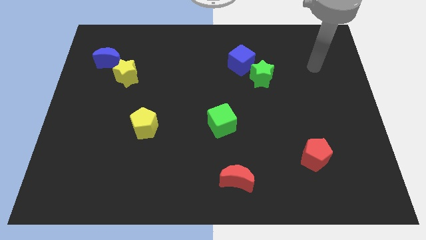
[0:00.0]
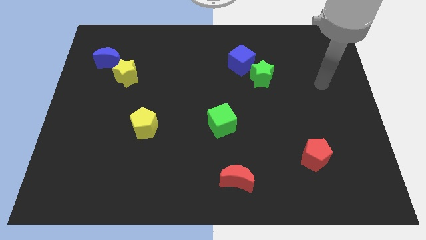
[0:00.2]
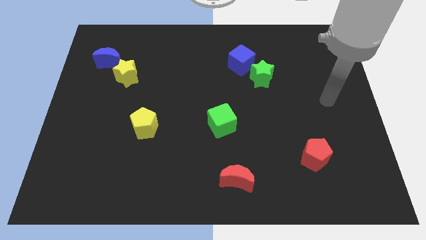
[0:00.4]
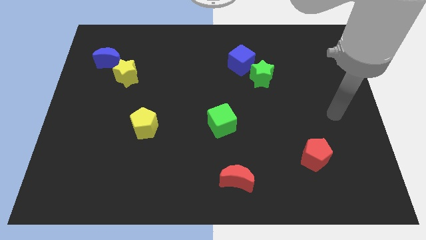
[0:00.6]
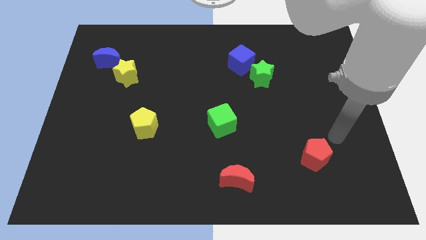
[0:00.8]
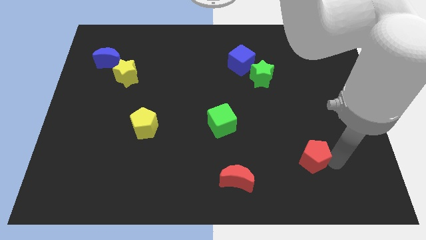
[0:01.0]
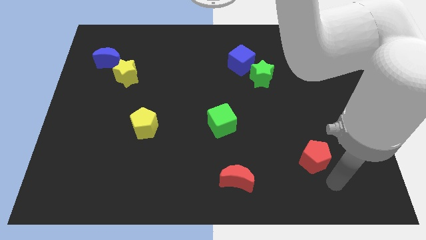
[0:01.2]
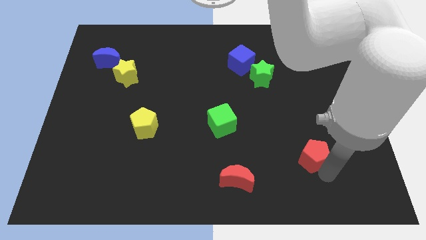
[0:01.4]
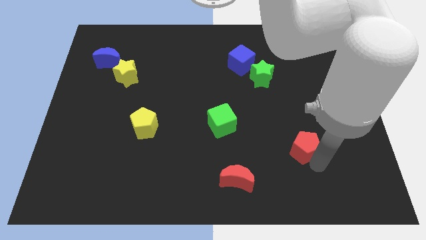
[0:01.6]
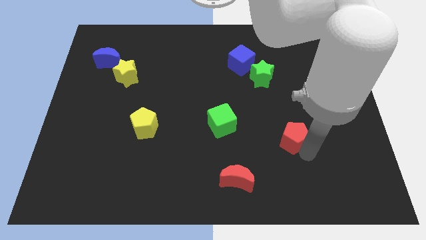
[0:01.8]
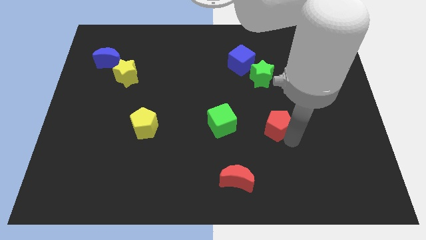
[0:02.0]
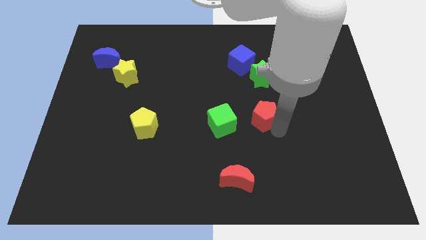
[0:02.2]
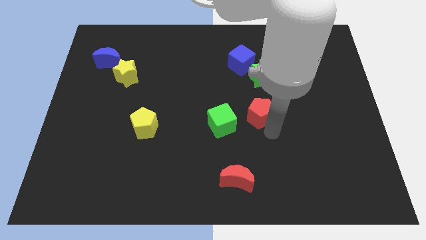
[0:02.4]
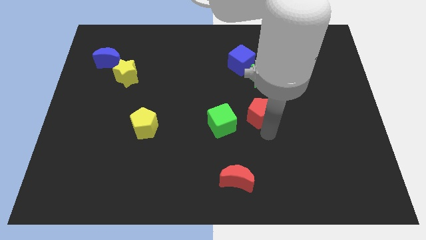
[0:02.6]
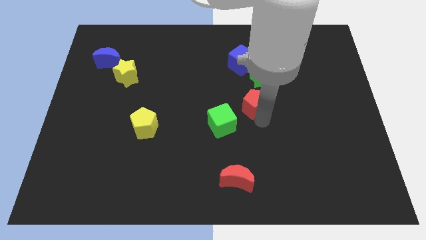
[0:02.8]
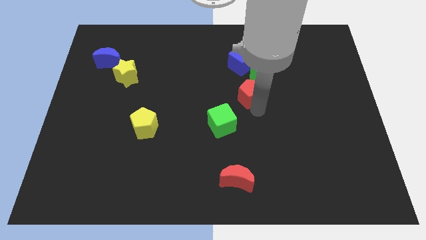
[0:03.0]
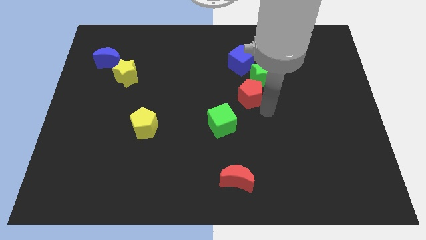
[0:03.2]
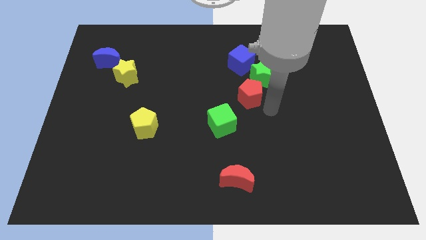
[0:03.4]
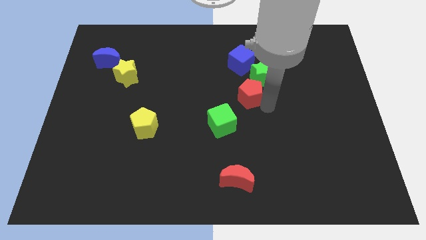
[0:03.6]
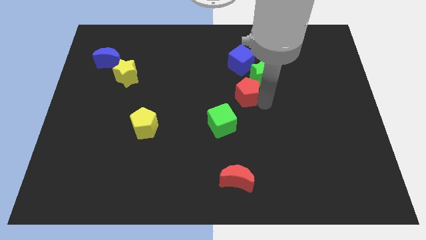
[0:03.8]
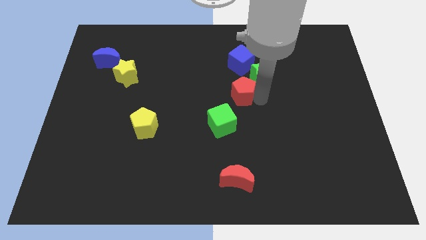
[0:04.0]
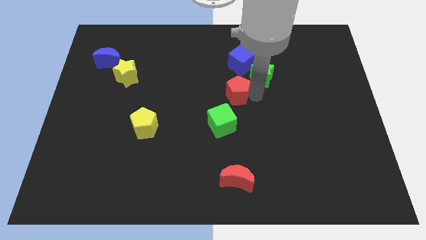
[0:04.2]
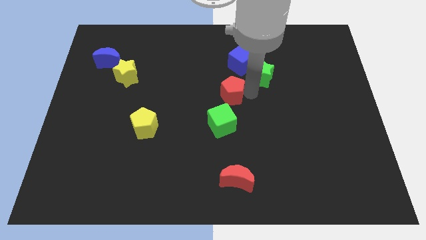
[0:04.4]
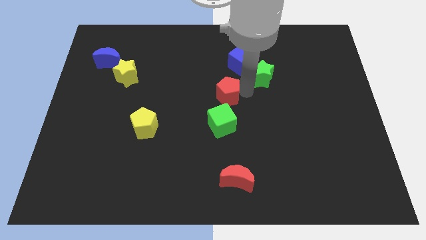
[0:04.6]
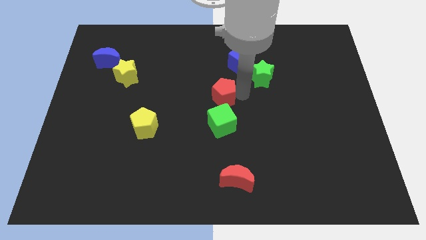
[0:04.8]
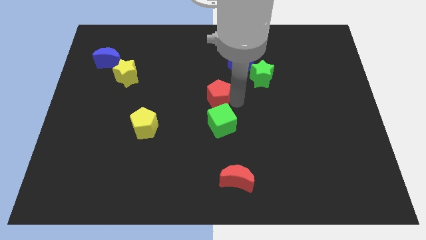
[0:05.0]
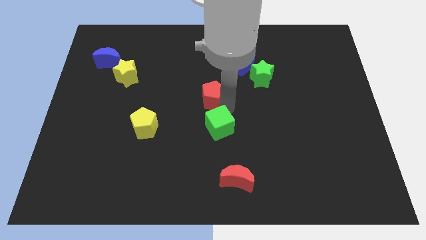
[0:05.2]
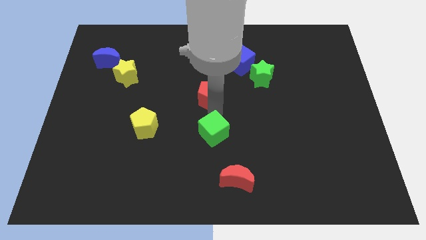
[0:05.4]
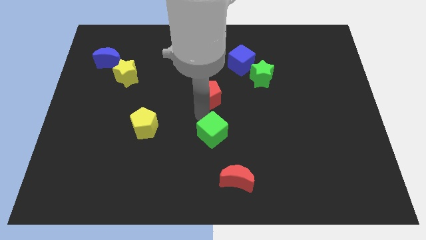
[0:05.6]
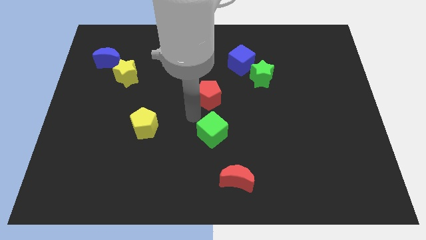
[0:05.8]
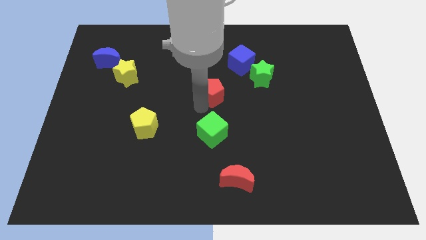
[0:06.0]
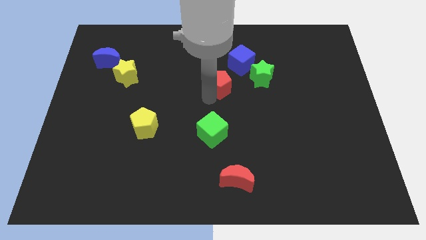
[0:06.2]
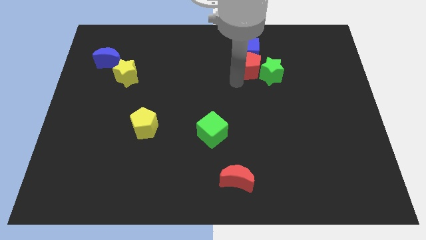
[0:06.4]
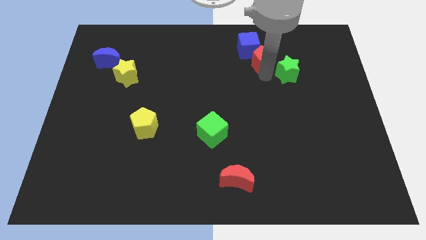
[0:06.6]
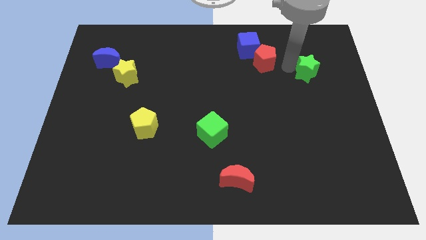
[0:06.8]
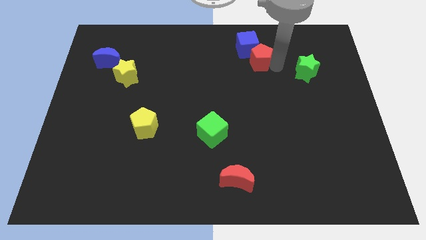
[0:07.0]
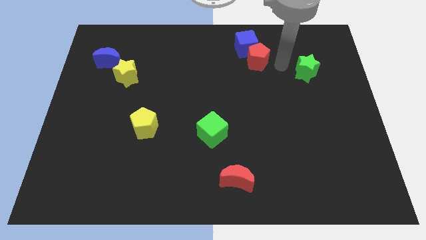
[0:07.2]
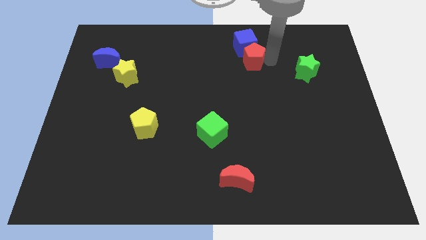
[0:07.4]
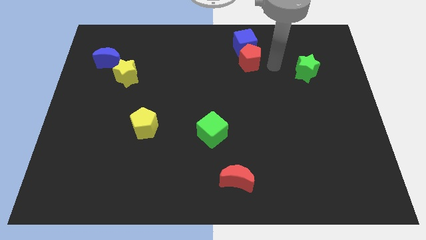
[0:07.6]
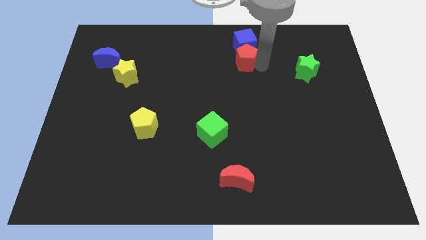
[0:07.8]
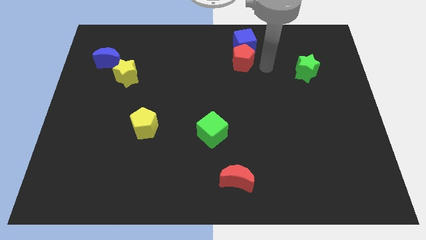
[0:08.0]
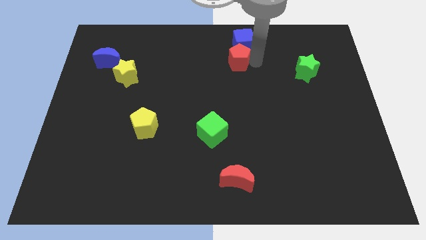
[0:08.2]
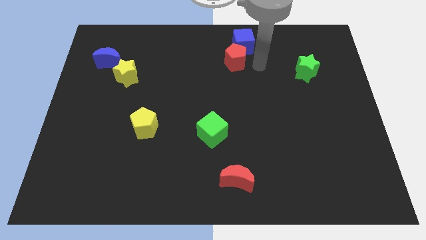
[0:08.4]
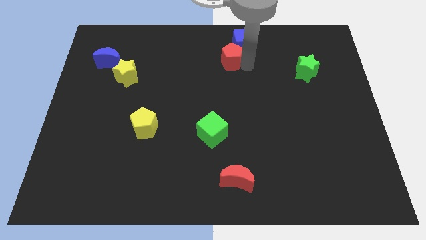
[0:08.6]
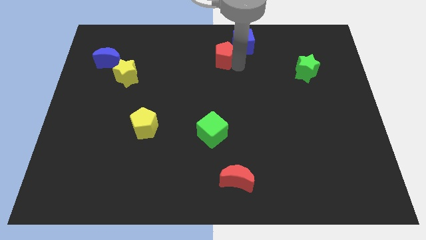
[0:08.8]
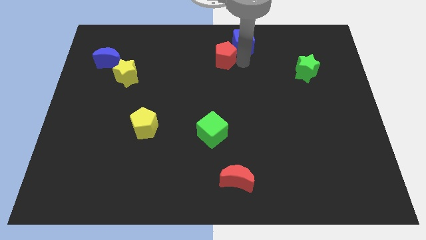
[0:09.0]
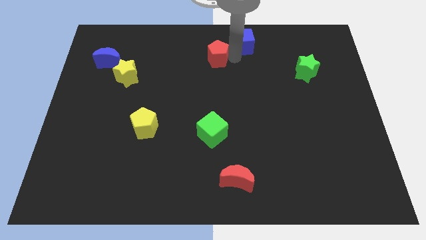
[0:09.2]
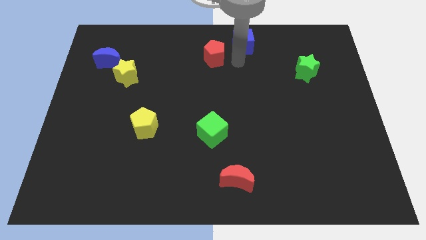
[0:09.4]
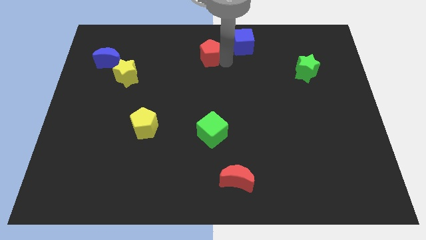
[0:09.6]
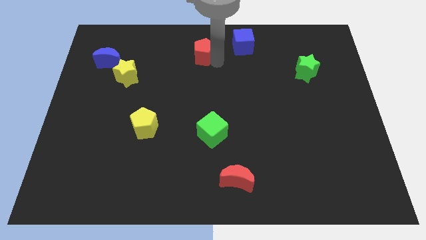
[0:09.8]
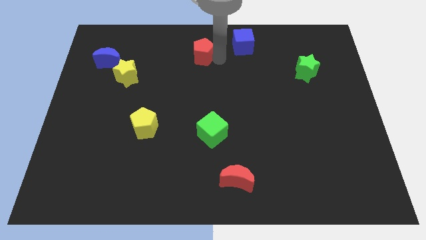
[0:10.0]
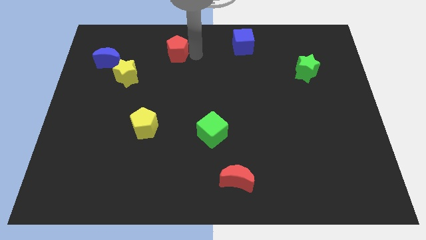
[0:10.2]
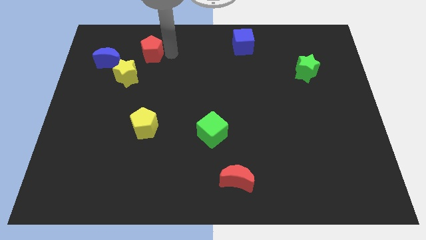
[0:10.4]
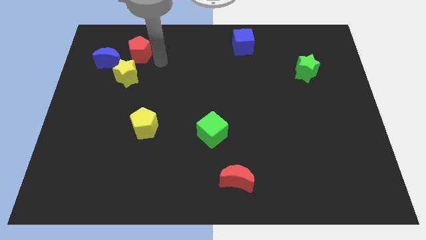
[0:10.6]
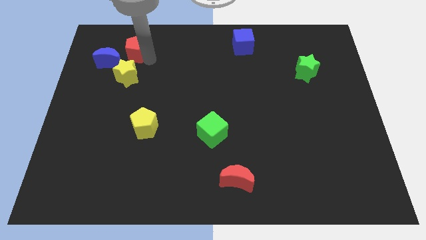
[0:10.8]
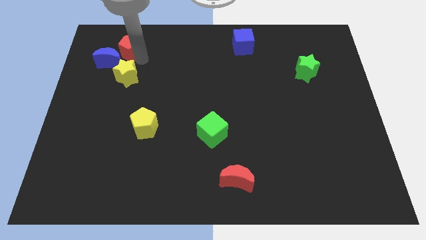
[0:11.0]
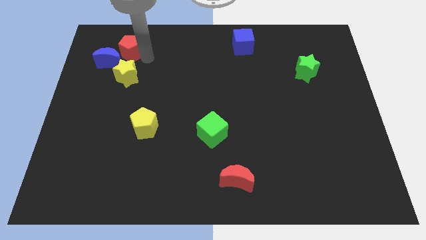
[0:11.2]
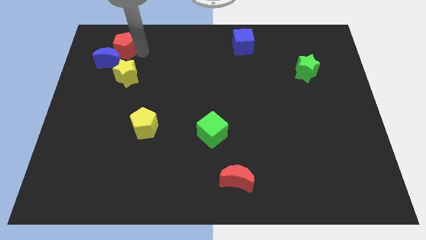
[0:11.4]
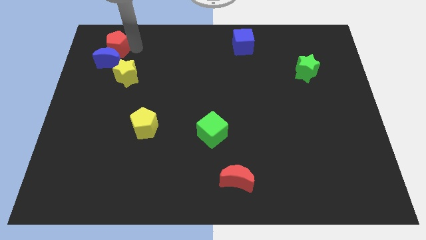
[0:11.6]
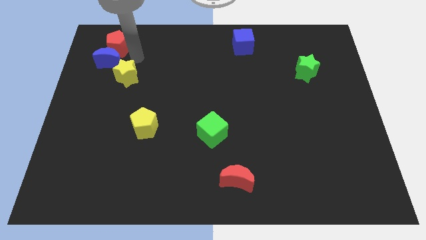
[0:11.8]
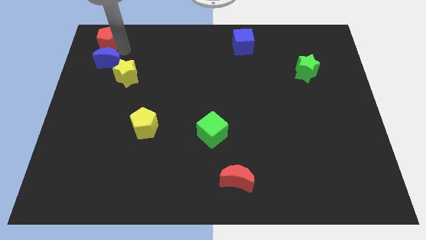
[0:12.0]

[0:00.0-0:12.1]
push the red pentagon to the top left of the board
